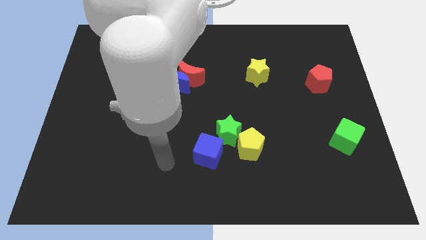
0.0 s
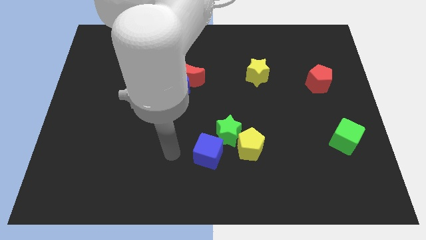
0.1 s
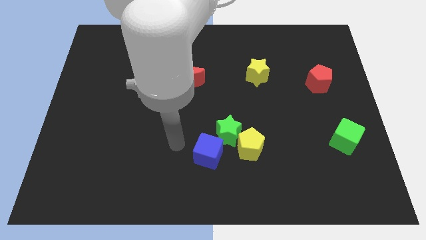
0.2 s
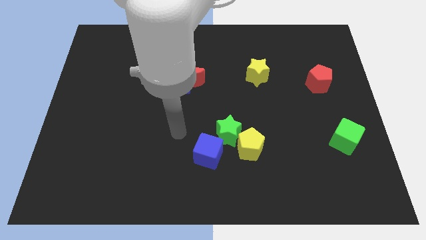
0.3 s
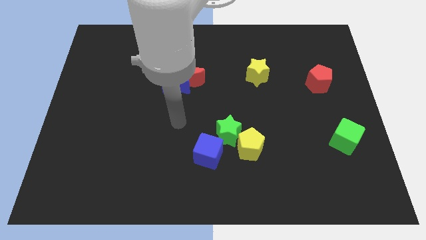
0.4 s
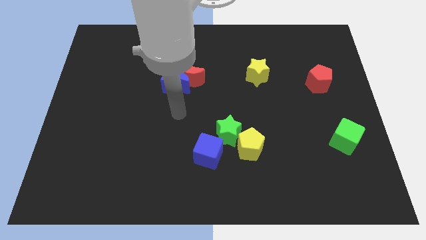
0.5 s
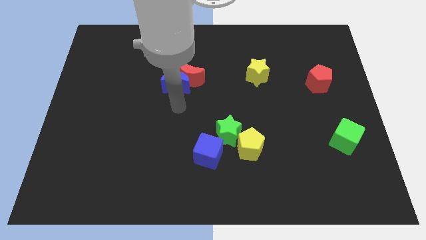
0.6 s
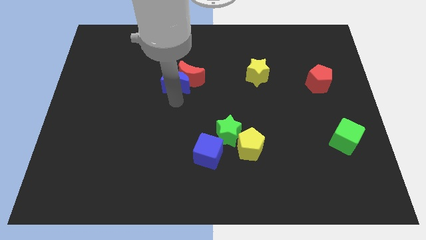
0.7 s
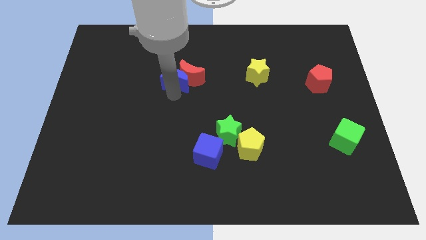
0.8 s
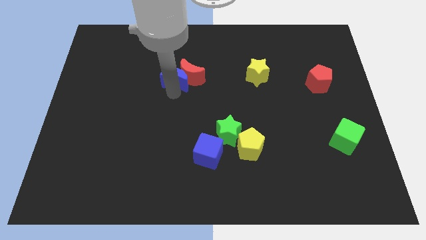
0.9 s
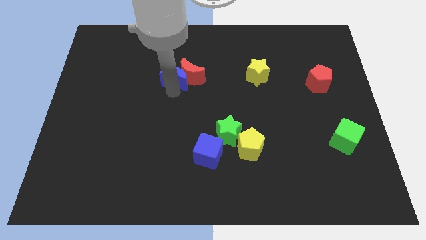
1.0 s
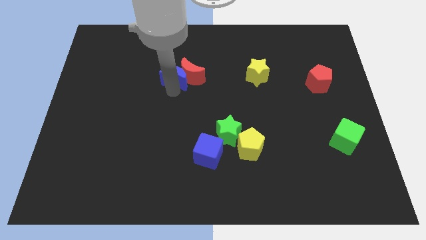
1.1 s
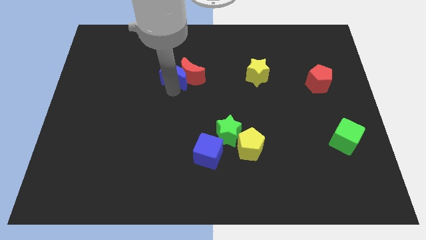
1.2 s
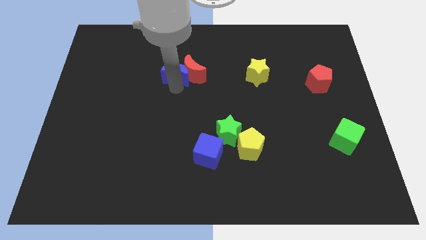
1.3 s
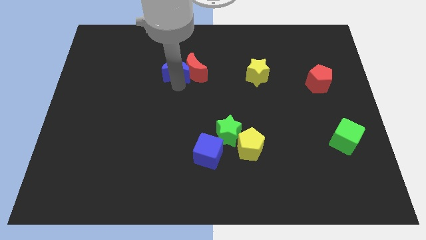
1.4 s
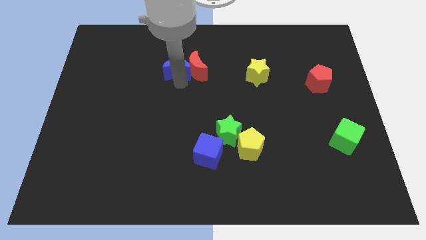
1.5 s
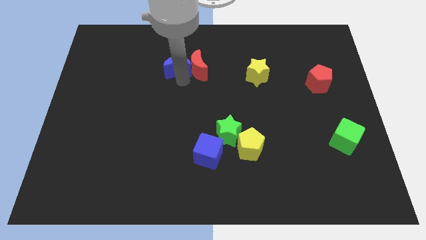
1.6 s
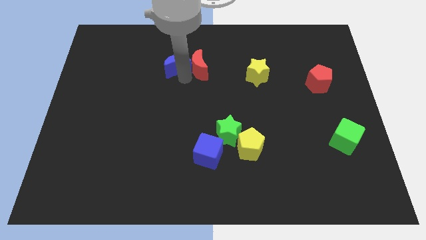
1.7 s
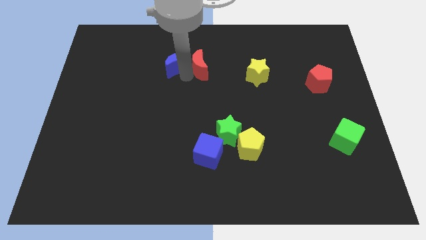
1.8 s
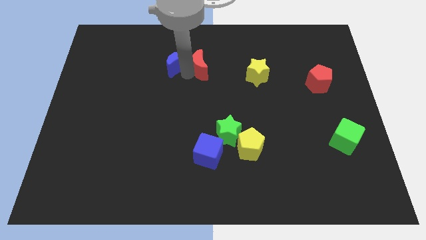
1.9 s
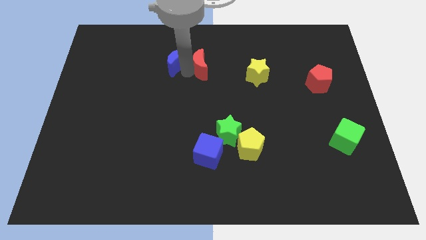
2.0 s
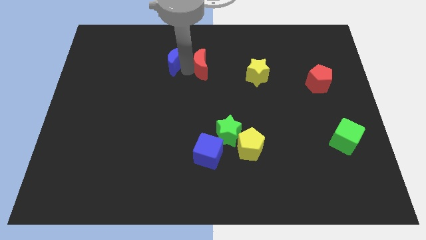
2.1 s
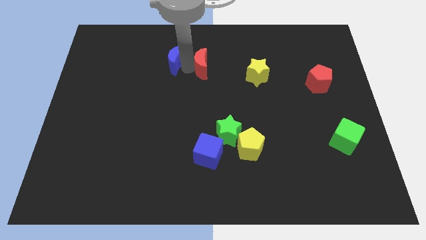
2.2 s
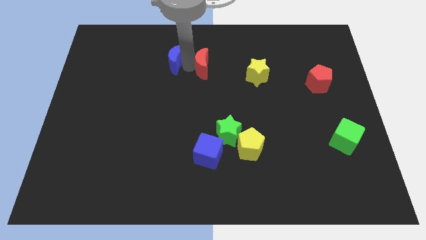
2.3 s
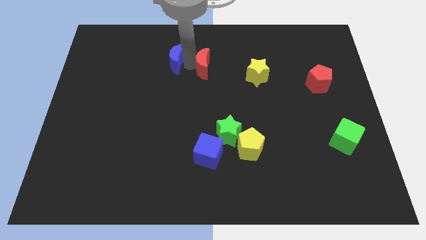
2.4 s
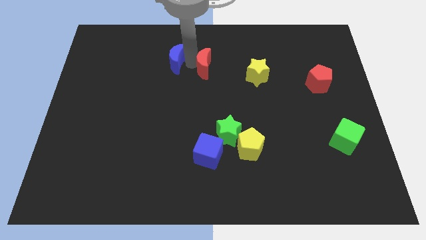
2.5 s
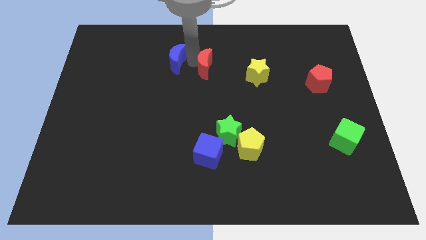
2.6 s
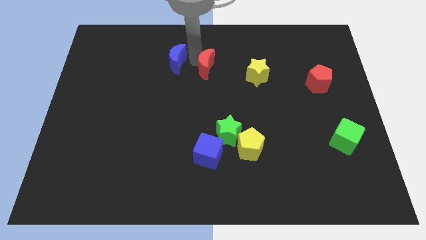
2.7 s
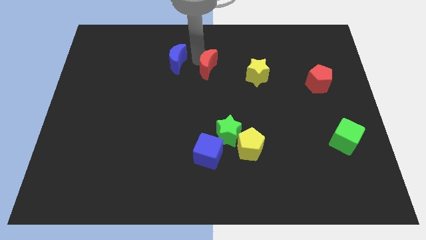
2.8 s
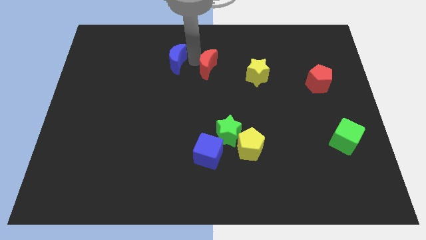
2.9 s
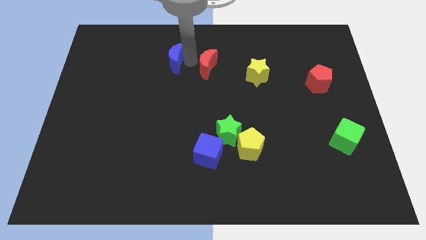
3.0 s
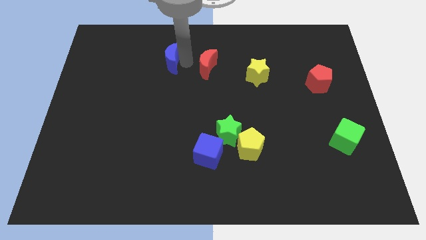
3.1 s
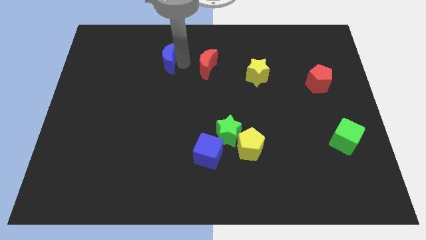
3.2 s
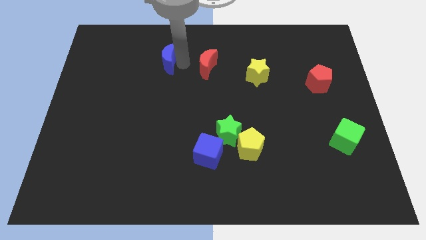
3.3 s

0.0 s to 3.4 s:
pull the red moon apart from the blue moon

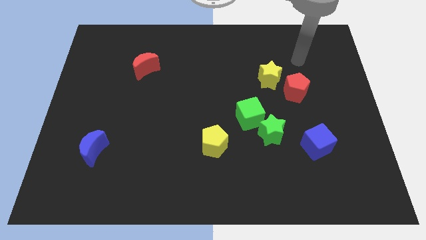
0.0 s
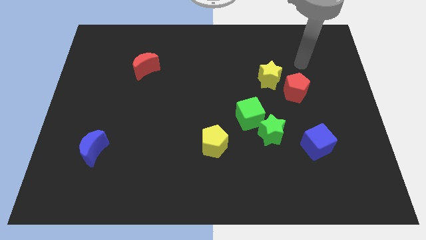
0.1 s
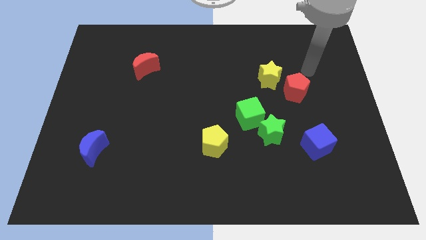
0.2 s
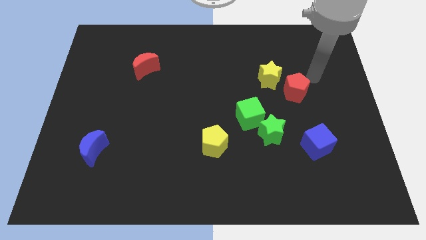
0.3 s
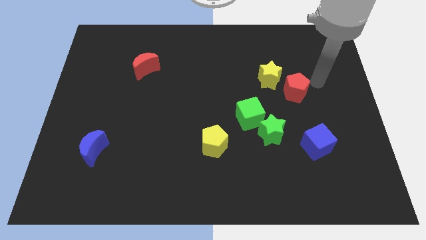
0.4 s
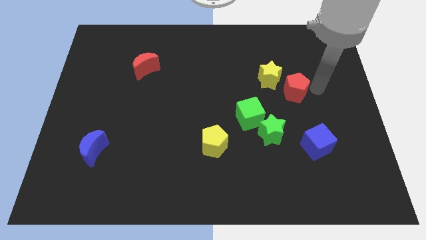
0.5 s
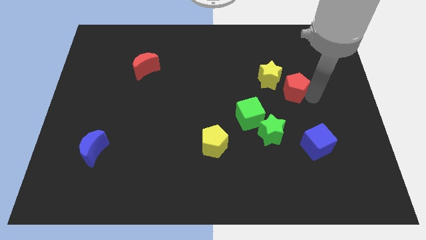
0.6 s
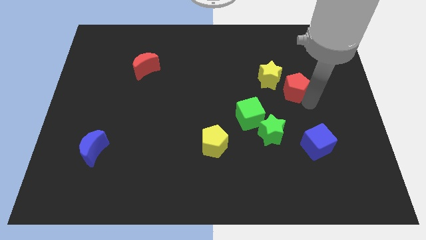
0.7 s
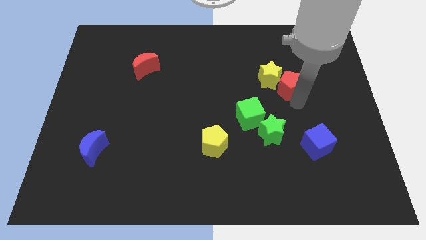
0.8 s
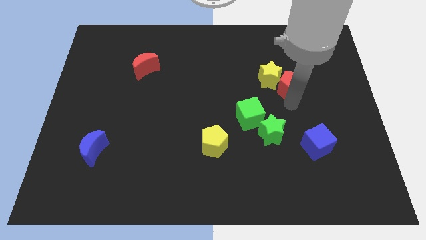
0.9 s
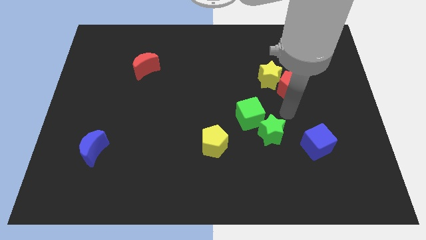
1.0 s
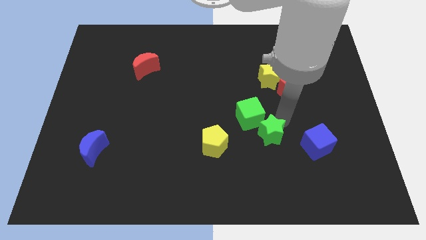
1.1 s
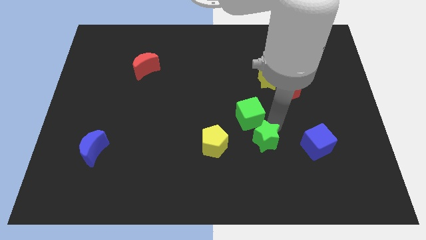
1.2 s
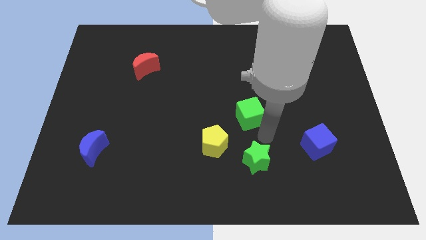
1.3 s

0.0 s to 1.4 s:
separate the green cube from the green star

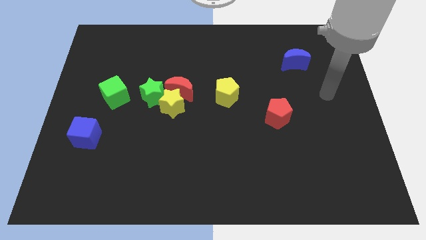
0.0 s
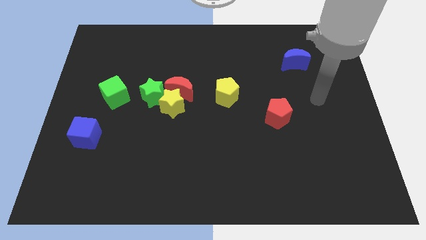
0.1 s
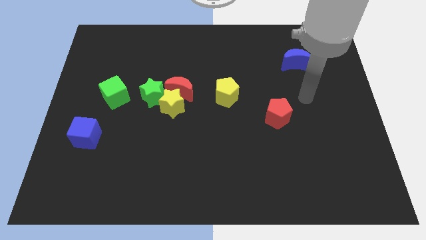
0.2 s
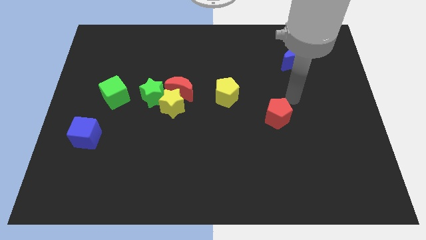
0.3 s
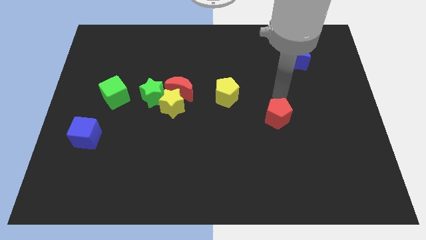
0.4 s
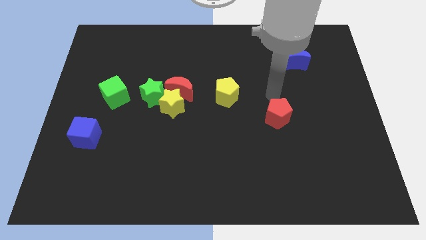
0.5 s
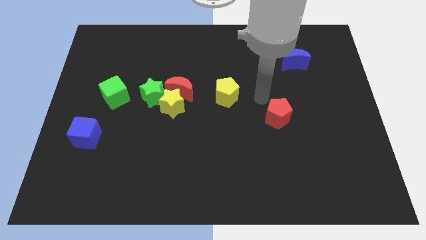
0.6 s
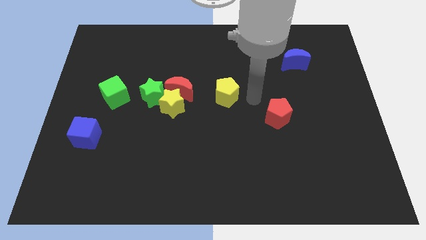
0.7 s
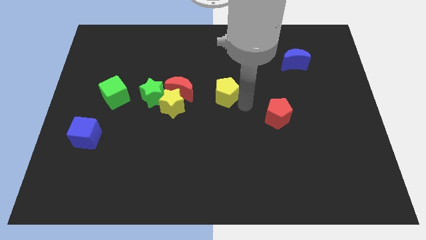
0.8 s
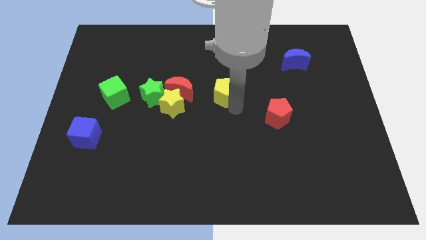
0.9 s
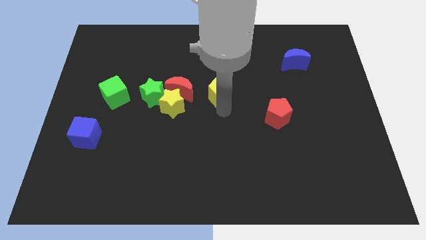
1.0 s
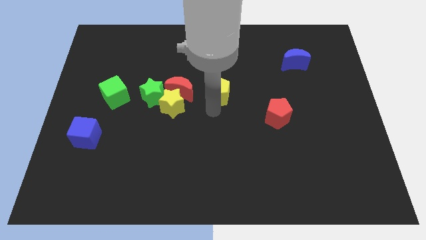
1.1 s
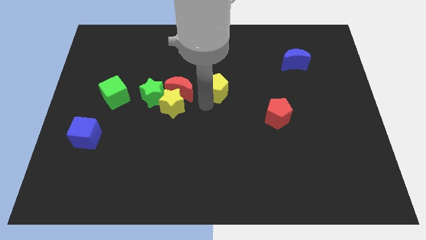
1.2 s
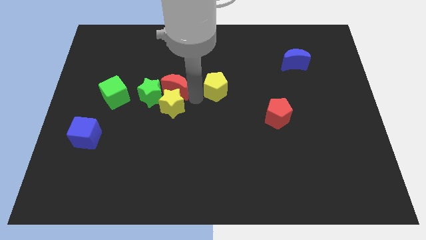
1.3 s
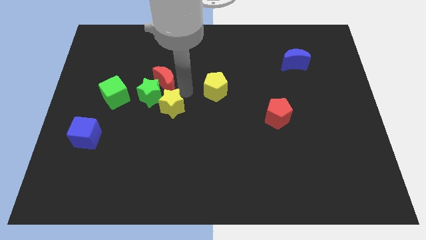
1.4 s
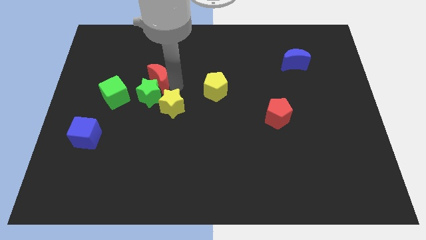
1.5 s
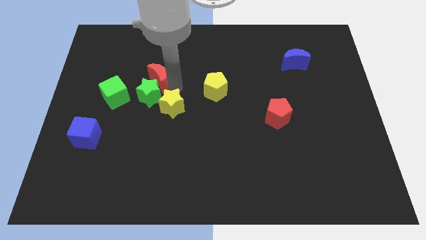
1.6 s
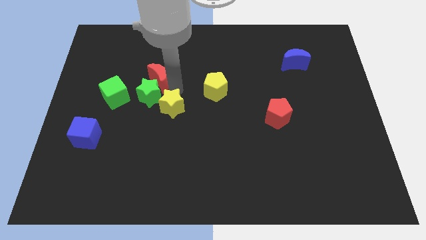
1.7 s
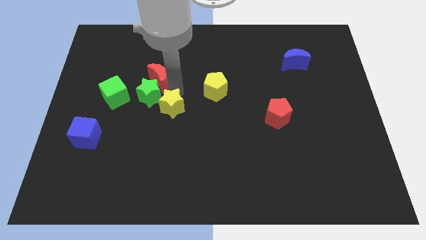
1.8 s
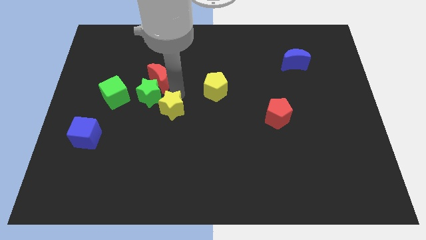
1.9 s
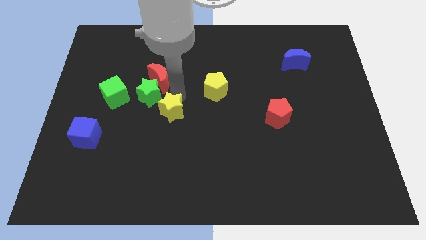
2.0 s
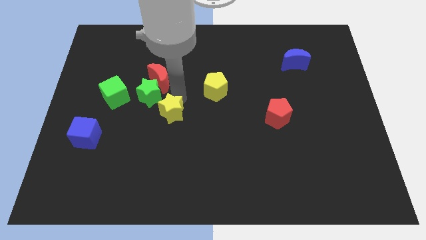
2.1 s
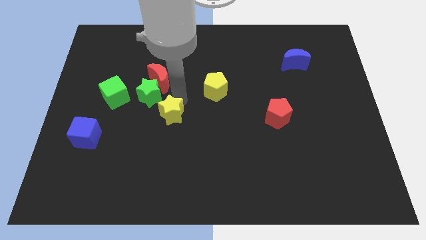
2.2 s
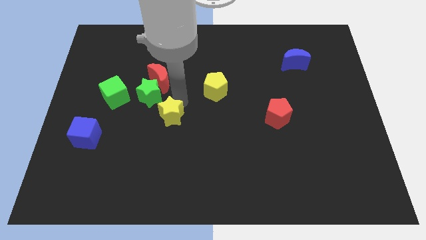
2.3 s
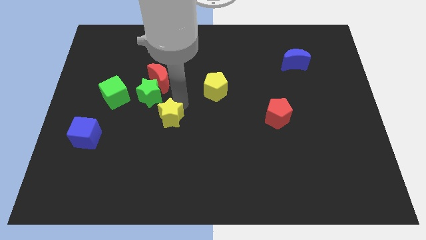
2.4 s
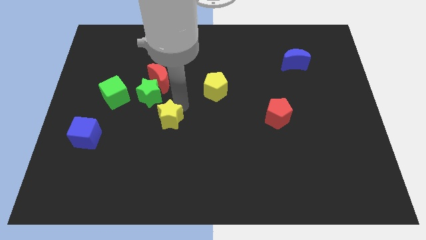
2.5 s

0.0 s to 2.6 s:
pull the yellow star apart from the red moon and green star

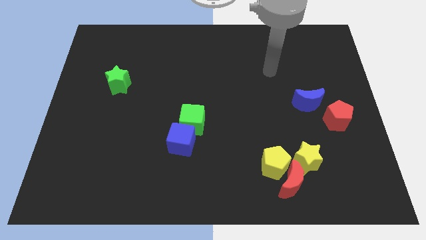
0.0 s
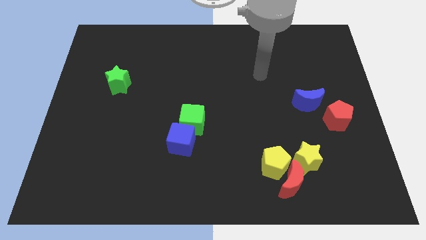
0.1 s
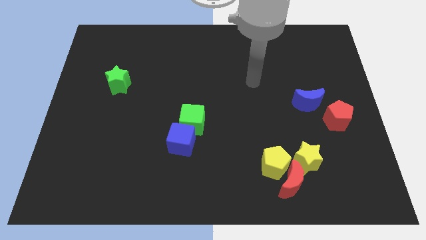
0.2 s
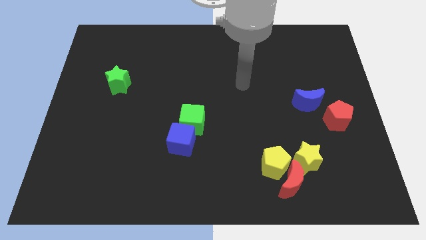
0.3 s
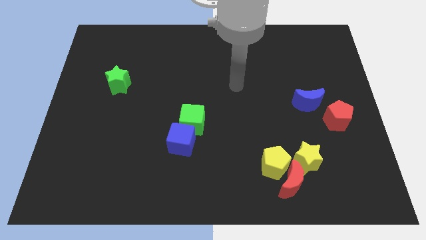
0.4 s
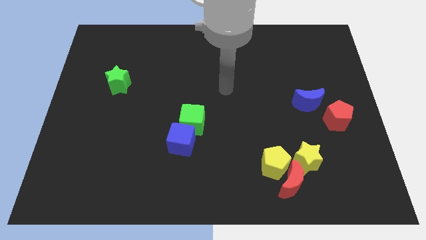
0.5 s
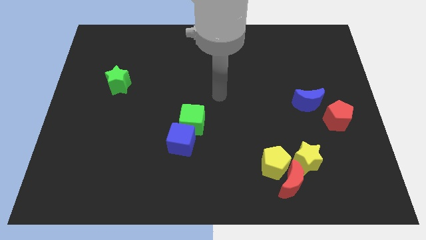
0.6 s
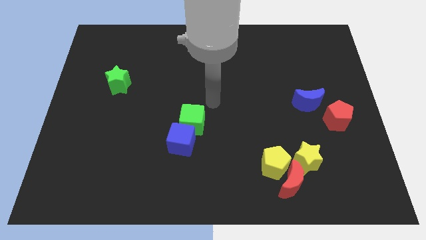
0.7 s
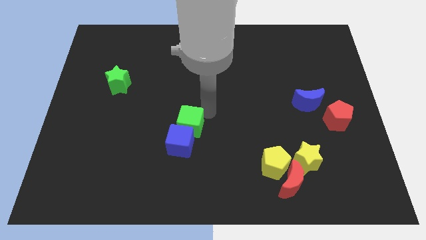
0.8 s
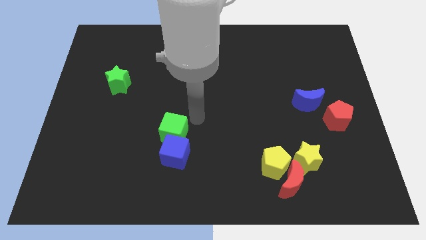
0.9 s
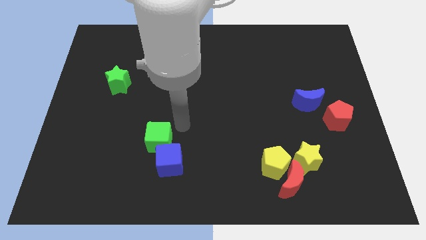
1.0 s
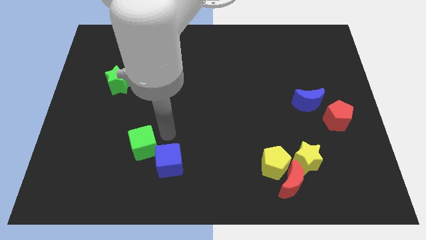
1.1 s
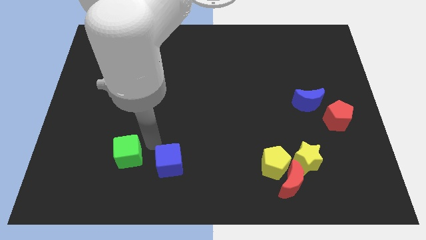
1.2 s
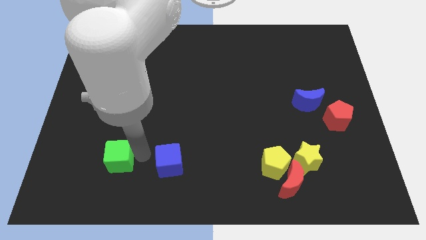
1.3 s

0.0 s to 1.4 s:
move the blue cube away from the green cube

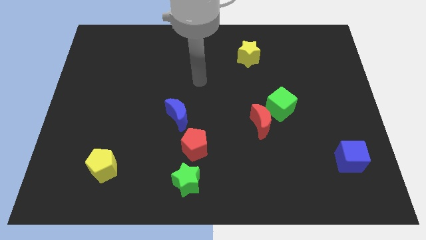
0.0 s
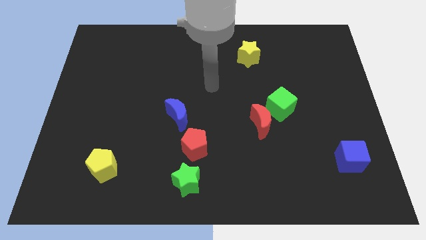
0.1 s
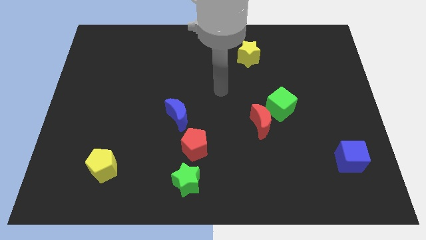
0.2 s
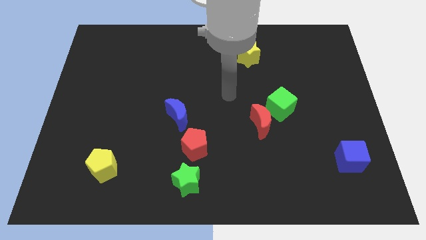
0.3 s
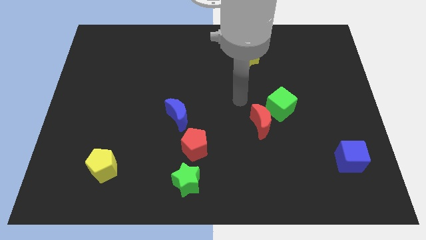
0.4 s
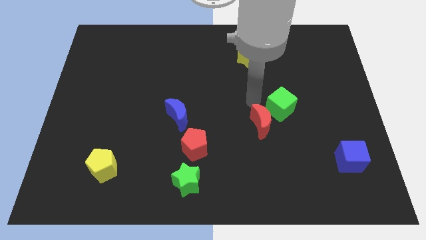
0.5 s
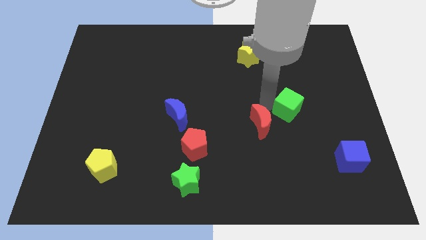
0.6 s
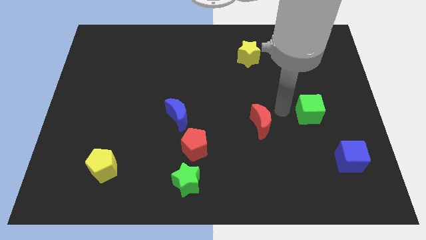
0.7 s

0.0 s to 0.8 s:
separate the red moon from the green cube
